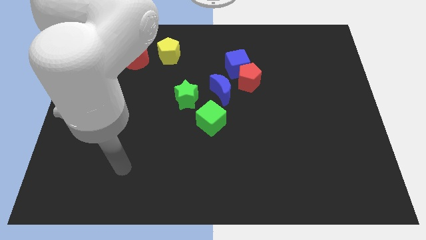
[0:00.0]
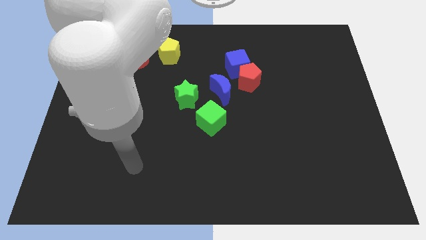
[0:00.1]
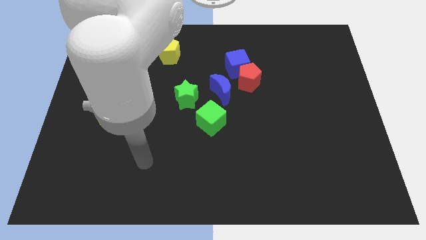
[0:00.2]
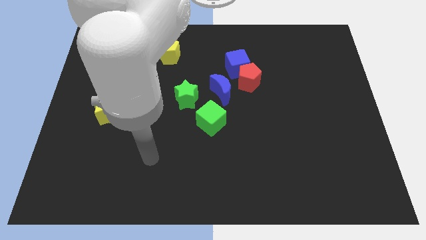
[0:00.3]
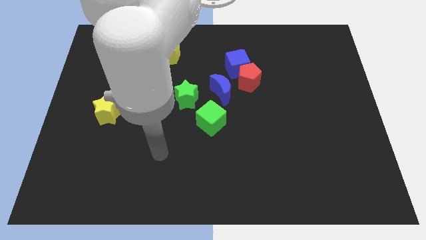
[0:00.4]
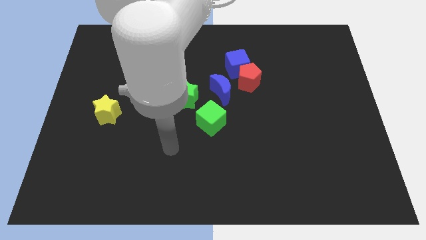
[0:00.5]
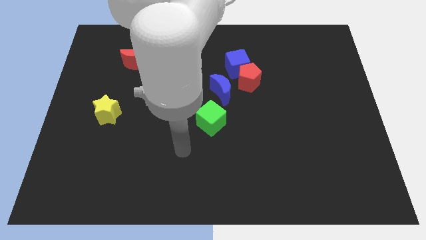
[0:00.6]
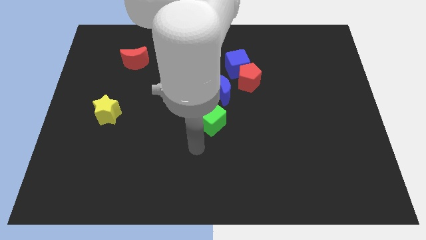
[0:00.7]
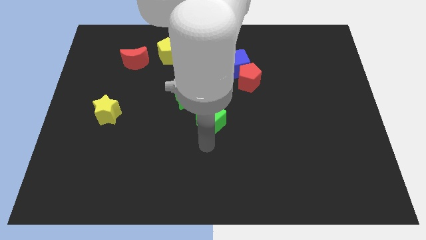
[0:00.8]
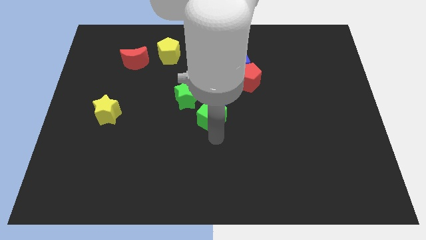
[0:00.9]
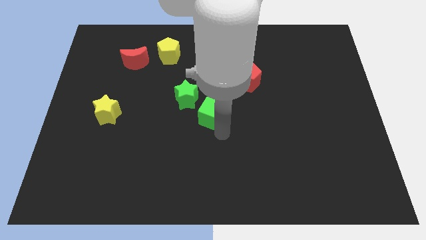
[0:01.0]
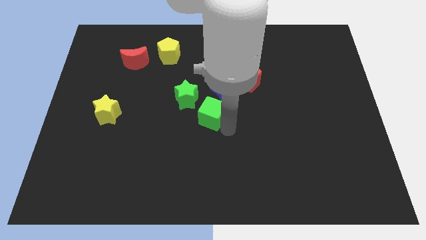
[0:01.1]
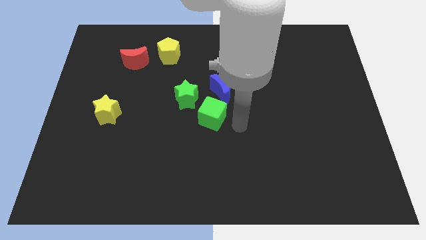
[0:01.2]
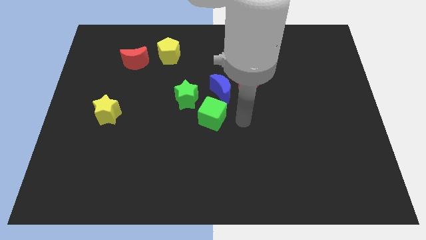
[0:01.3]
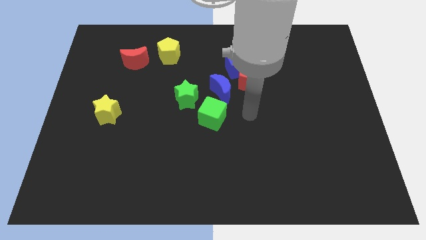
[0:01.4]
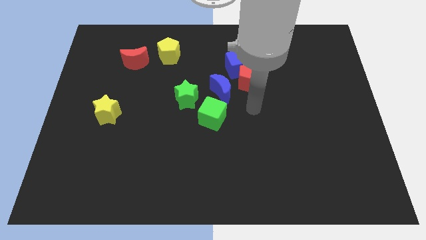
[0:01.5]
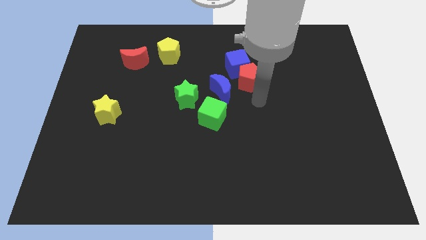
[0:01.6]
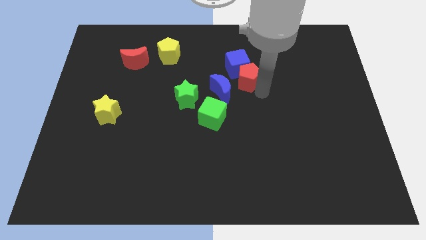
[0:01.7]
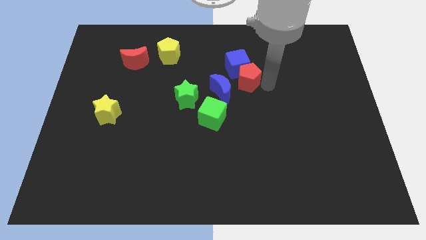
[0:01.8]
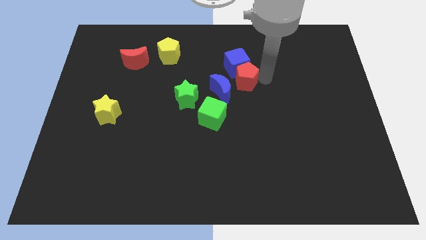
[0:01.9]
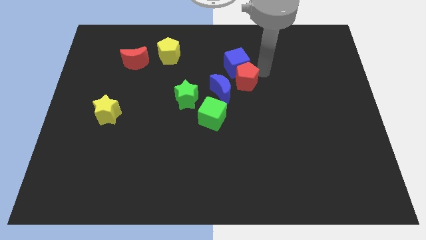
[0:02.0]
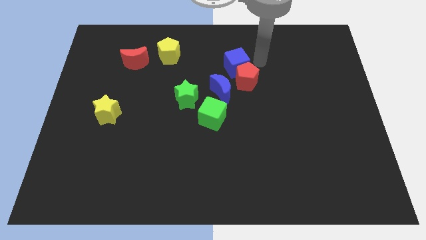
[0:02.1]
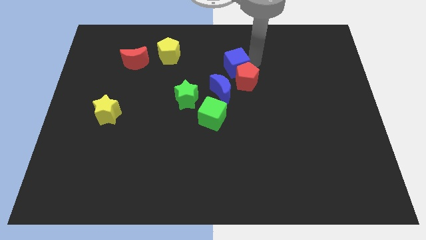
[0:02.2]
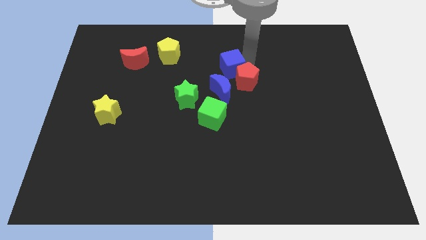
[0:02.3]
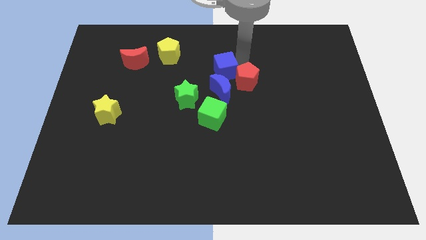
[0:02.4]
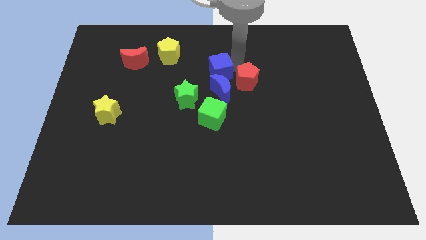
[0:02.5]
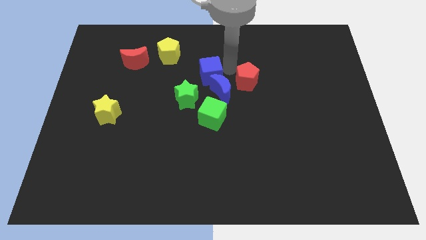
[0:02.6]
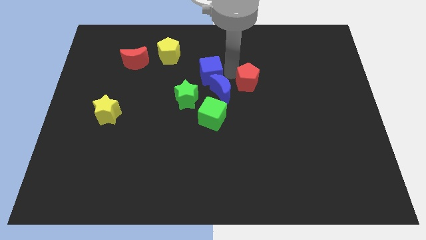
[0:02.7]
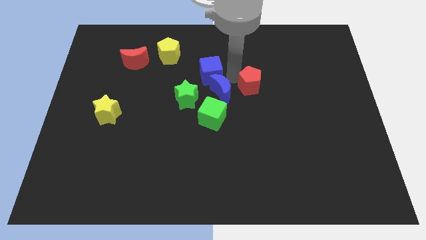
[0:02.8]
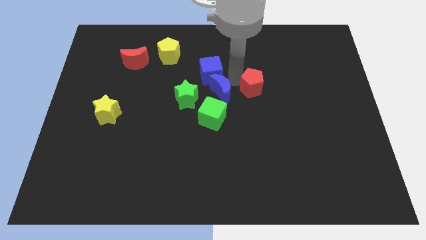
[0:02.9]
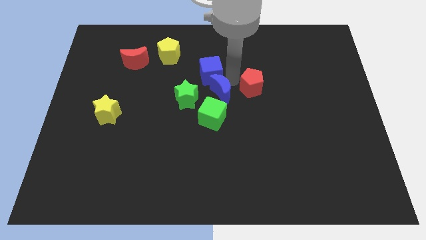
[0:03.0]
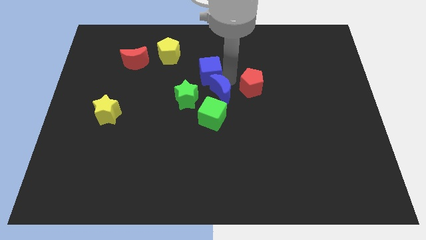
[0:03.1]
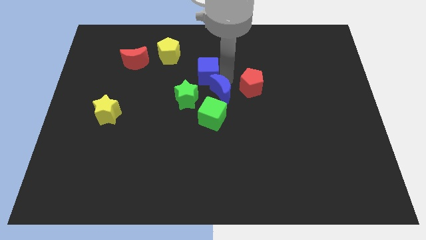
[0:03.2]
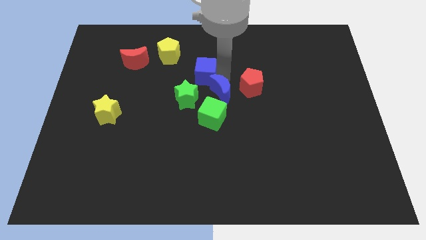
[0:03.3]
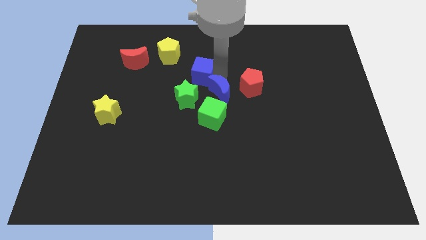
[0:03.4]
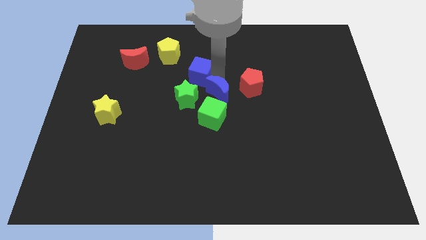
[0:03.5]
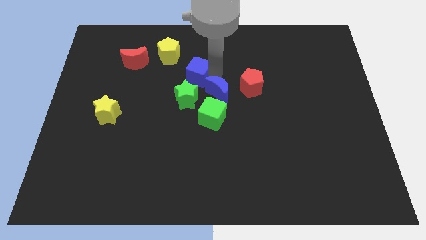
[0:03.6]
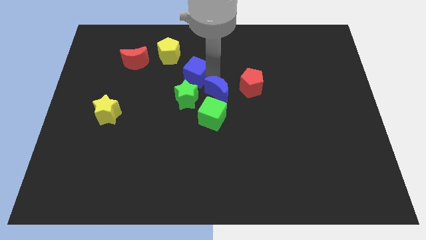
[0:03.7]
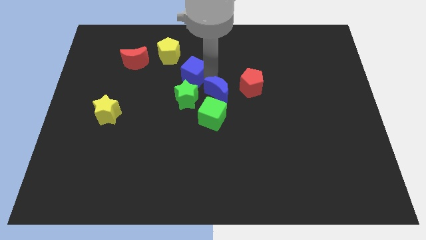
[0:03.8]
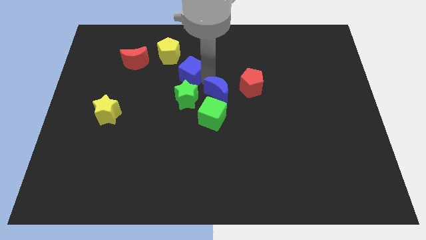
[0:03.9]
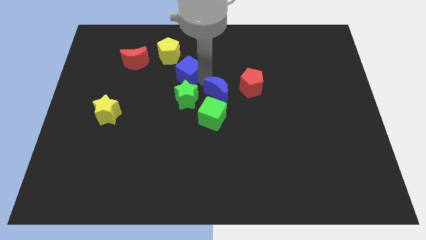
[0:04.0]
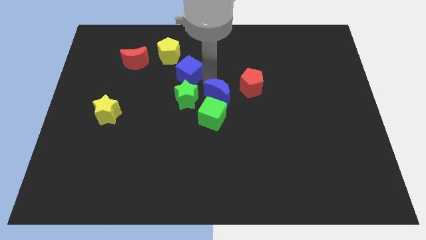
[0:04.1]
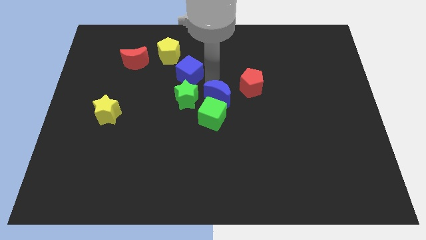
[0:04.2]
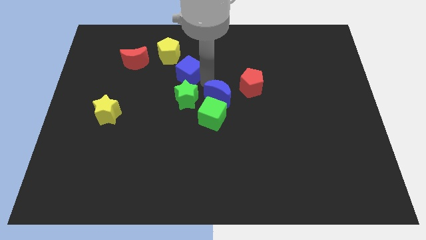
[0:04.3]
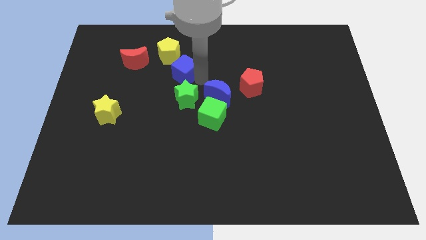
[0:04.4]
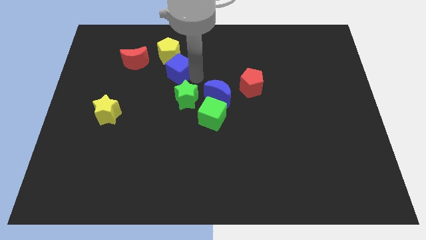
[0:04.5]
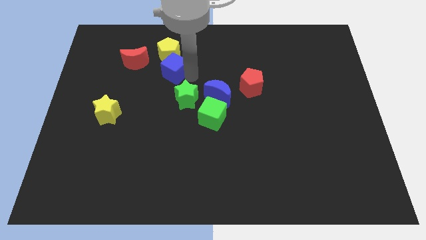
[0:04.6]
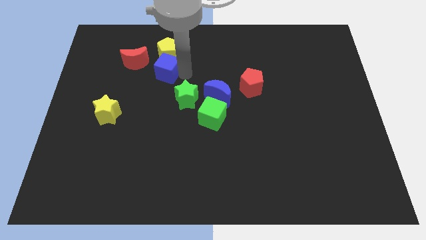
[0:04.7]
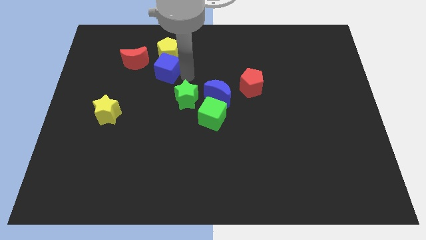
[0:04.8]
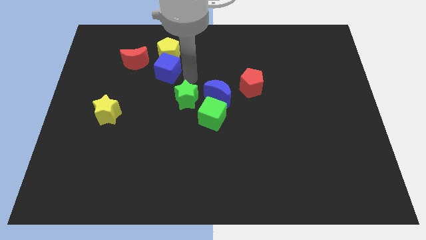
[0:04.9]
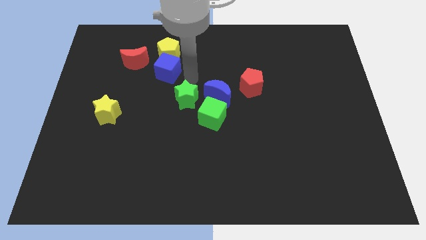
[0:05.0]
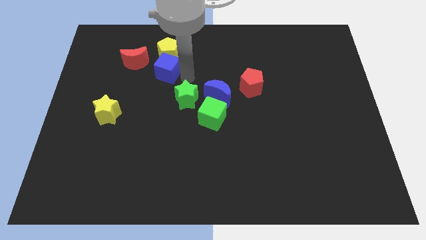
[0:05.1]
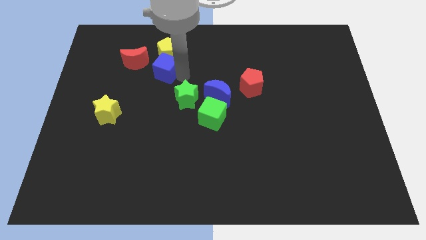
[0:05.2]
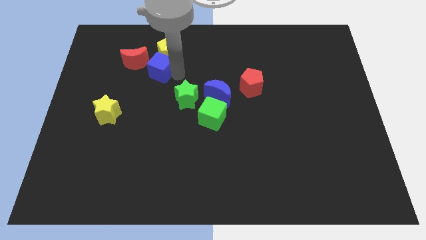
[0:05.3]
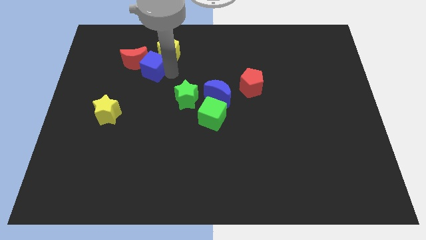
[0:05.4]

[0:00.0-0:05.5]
push the blue cube close to the red moon

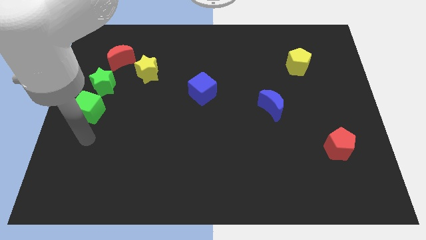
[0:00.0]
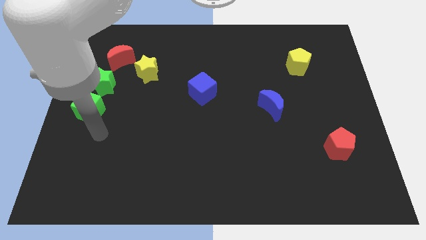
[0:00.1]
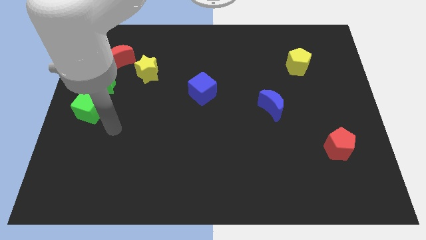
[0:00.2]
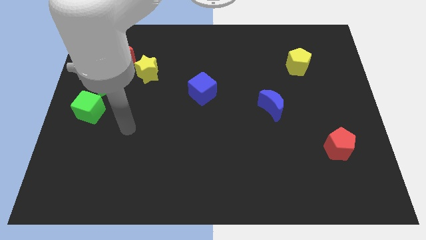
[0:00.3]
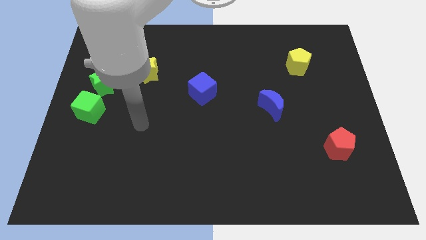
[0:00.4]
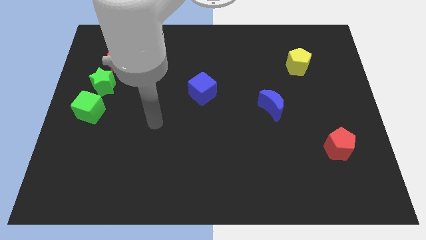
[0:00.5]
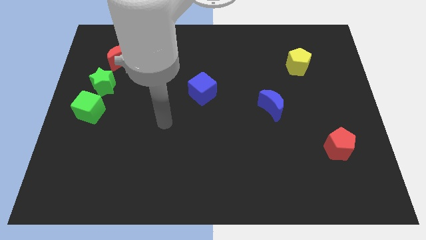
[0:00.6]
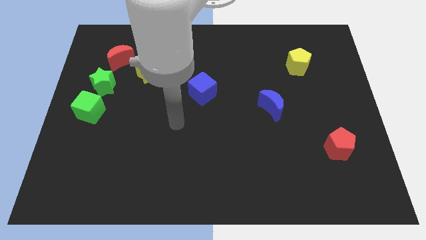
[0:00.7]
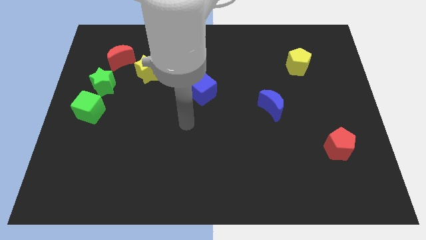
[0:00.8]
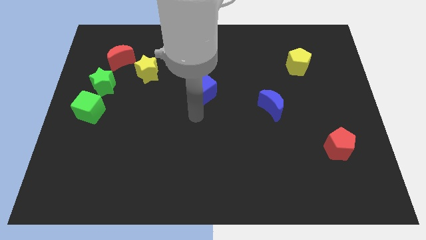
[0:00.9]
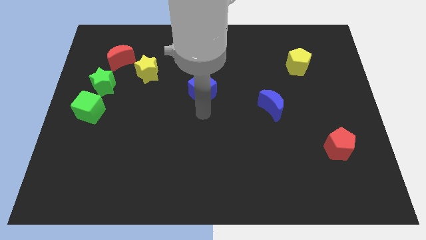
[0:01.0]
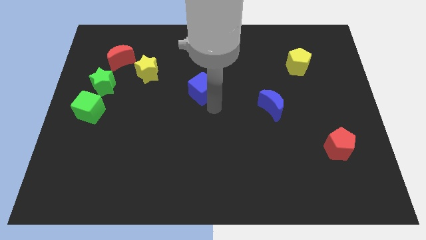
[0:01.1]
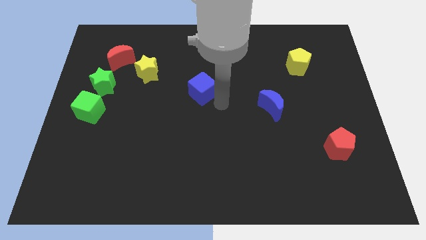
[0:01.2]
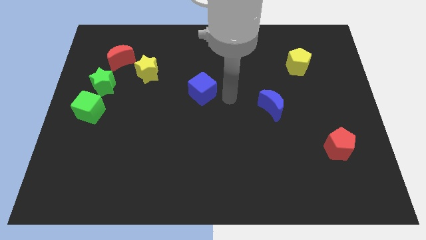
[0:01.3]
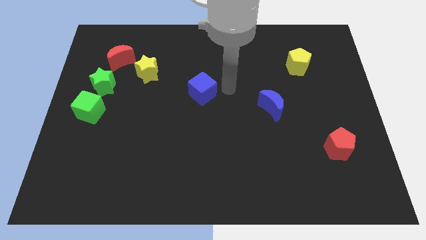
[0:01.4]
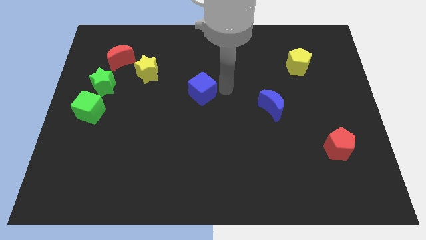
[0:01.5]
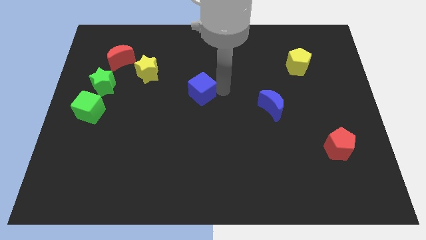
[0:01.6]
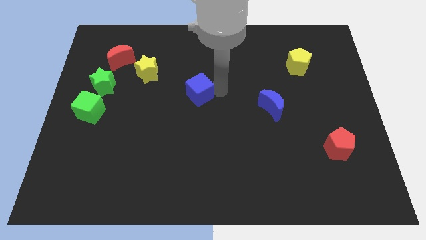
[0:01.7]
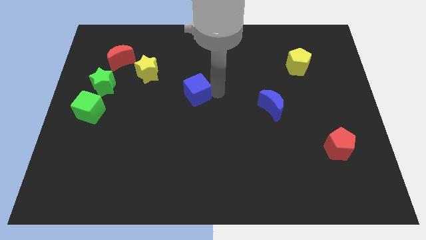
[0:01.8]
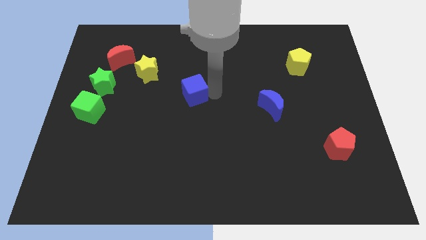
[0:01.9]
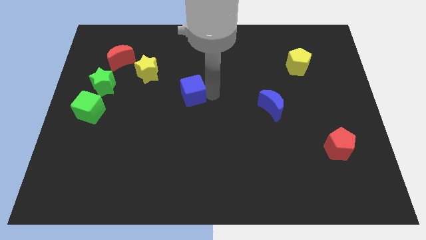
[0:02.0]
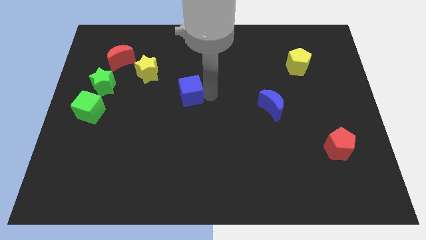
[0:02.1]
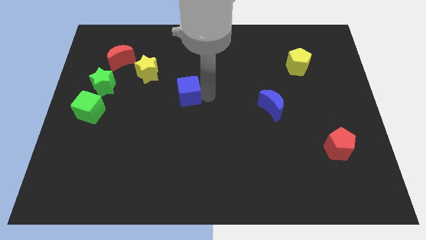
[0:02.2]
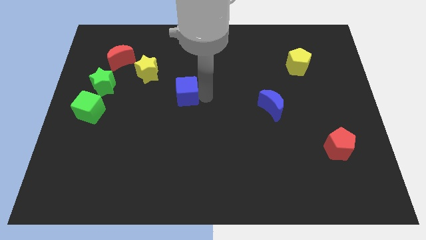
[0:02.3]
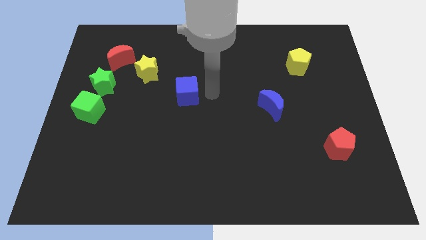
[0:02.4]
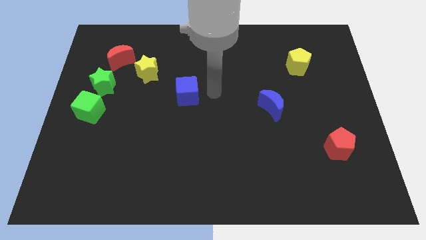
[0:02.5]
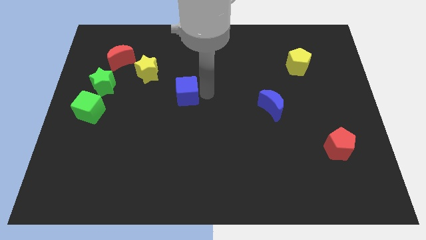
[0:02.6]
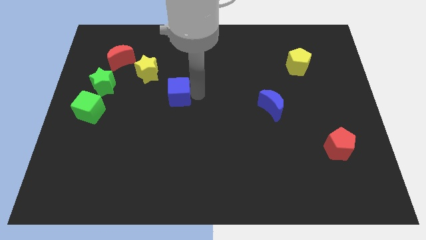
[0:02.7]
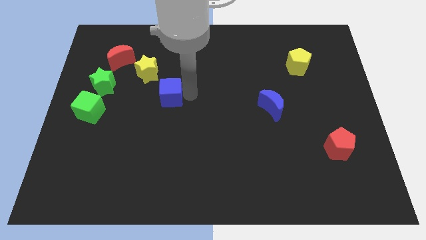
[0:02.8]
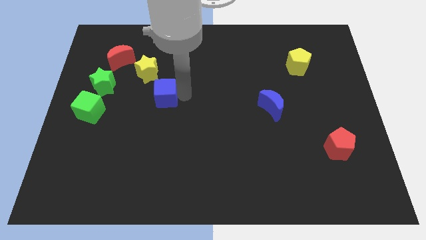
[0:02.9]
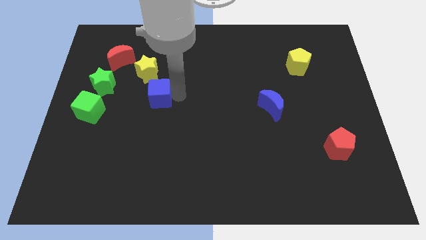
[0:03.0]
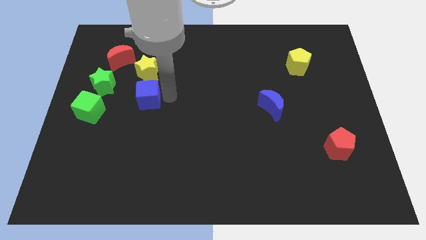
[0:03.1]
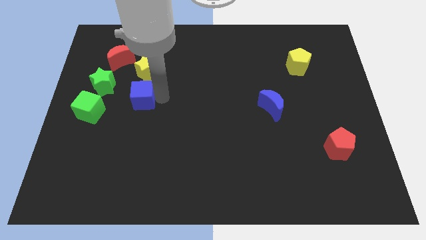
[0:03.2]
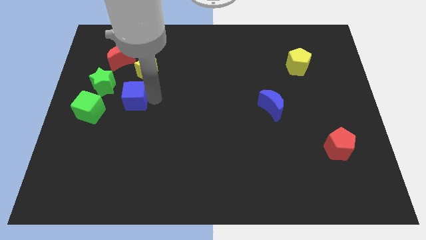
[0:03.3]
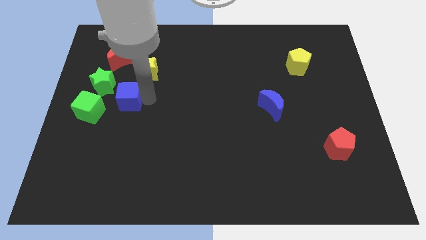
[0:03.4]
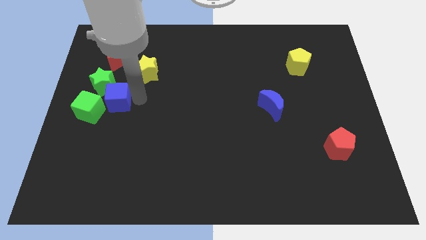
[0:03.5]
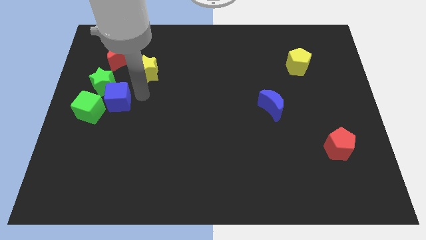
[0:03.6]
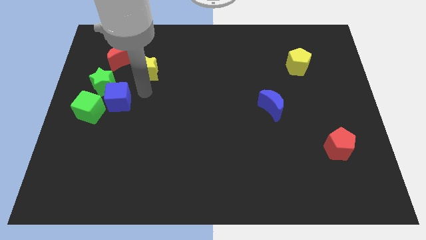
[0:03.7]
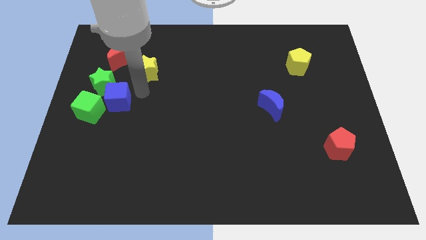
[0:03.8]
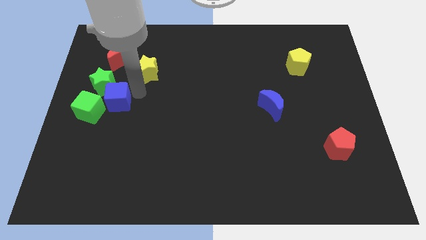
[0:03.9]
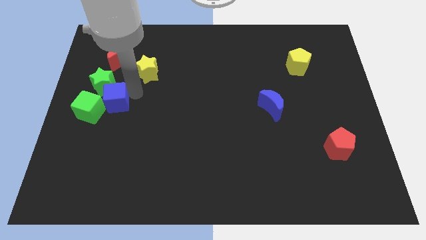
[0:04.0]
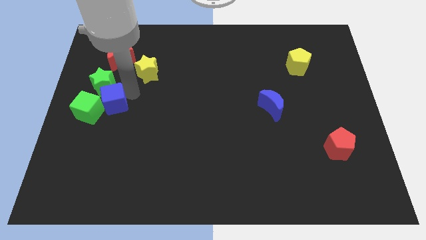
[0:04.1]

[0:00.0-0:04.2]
slide the blue cube next to the green cube
